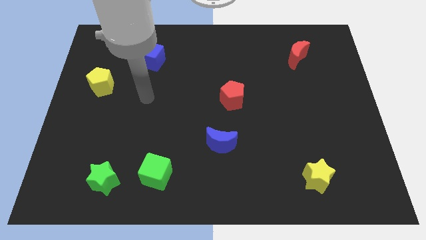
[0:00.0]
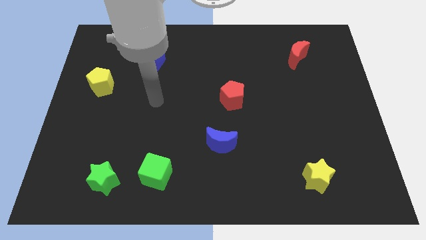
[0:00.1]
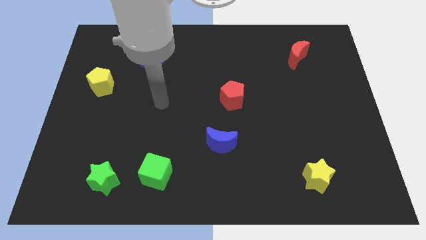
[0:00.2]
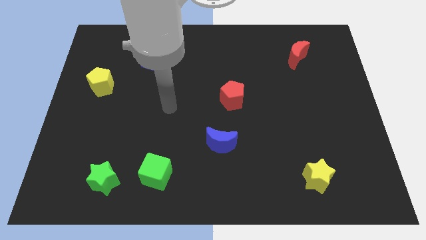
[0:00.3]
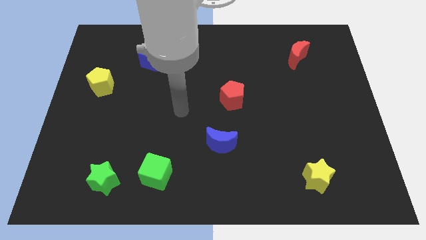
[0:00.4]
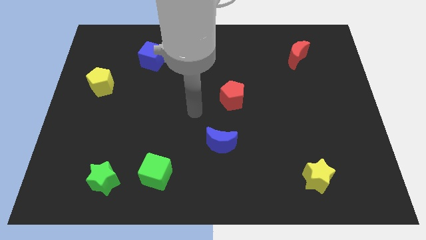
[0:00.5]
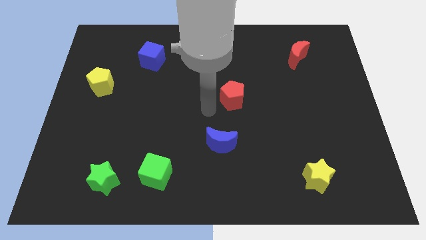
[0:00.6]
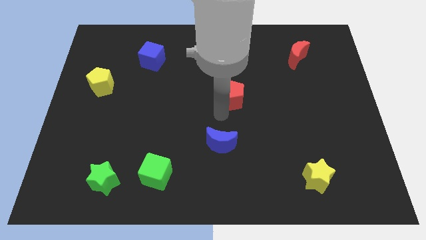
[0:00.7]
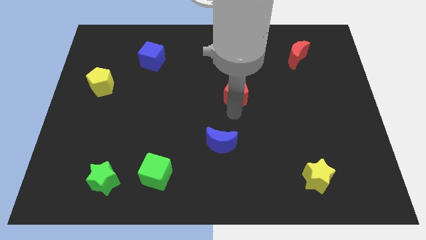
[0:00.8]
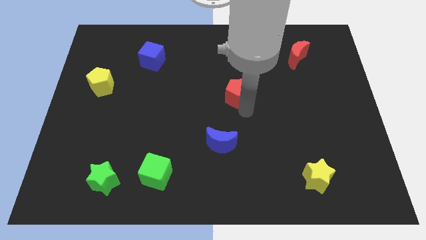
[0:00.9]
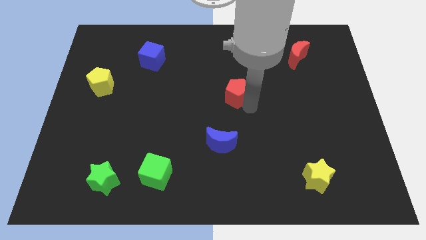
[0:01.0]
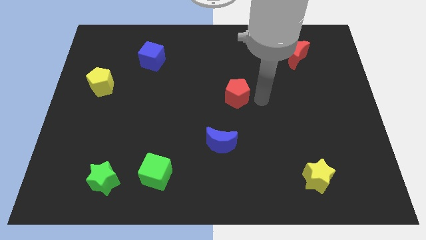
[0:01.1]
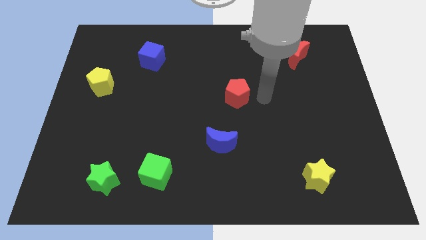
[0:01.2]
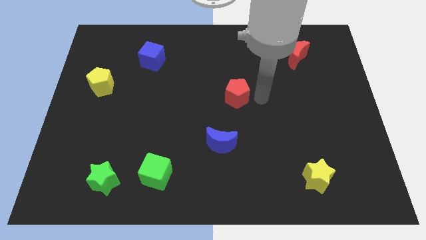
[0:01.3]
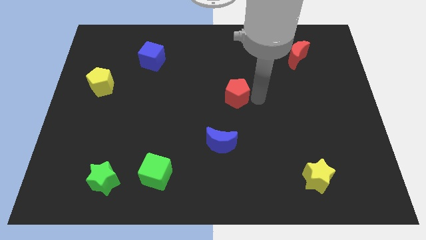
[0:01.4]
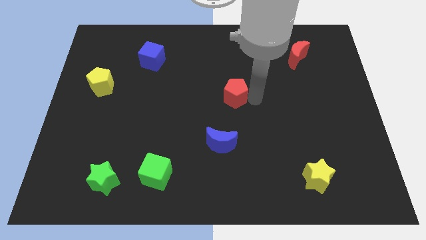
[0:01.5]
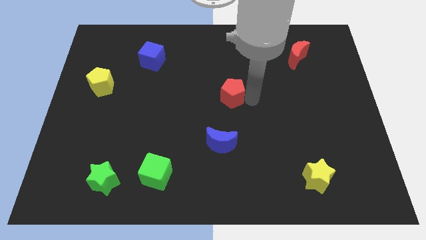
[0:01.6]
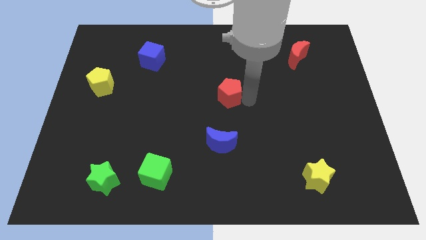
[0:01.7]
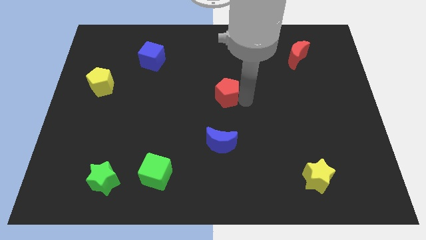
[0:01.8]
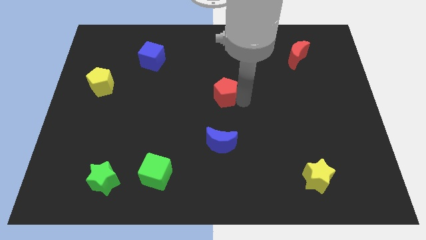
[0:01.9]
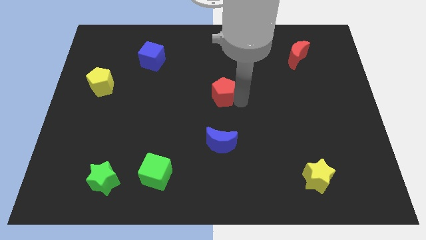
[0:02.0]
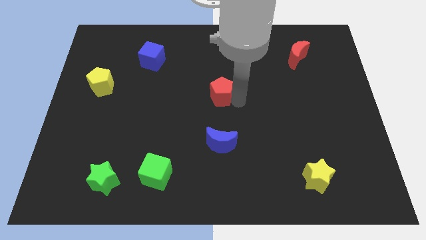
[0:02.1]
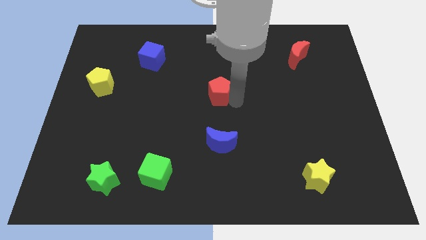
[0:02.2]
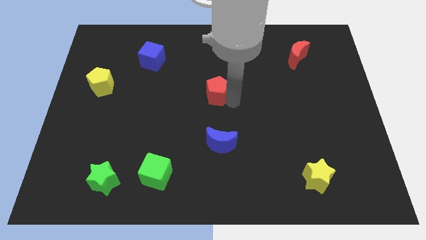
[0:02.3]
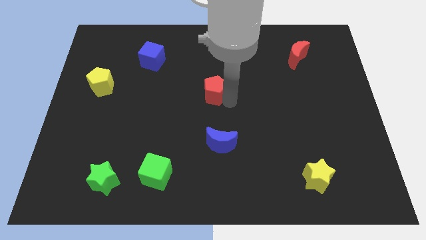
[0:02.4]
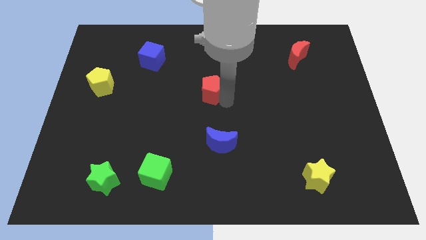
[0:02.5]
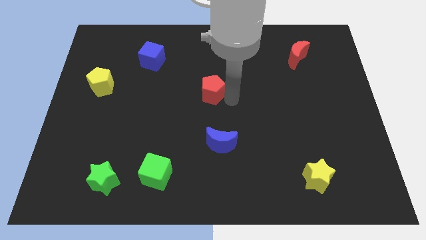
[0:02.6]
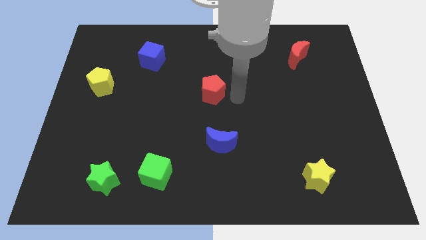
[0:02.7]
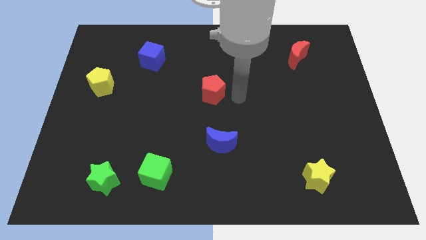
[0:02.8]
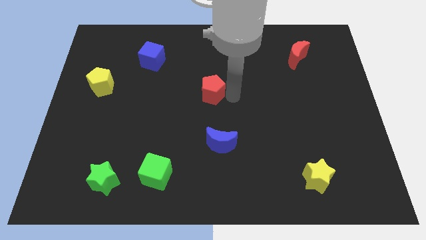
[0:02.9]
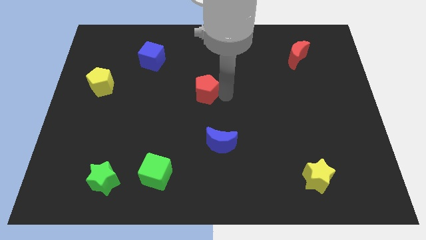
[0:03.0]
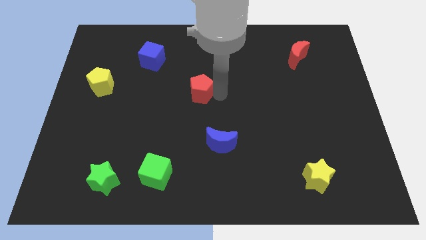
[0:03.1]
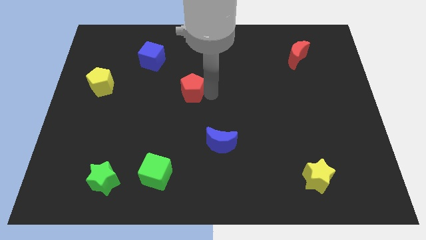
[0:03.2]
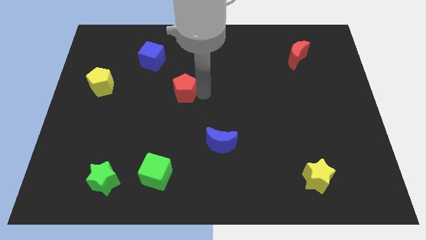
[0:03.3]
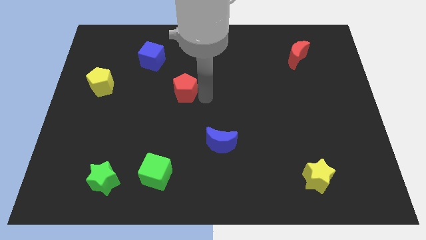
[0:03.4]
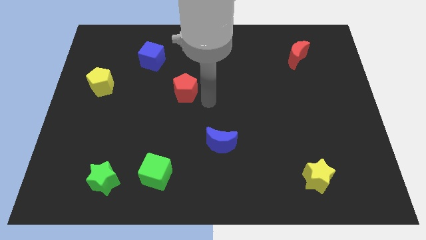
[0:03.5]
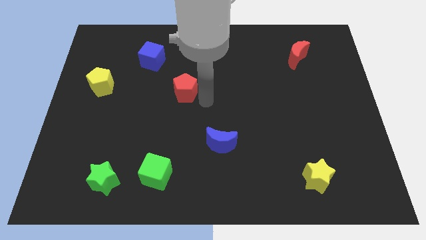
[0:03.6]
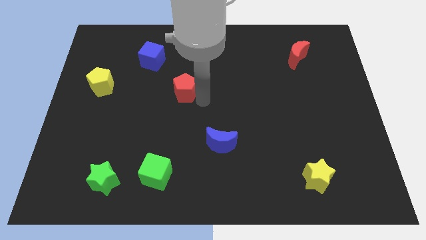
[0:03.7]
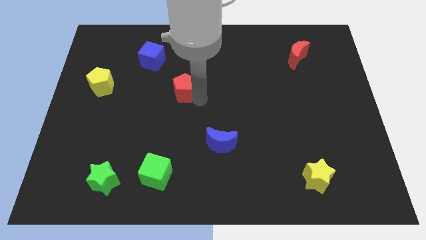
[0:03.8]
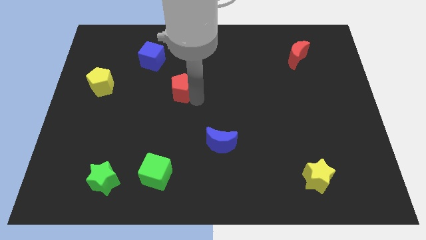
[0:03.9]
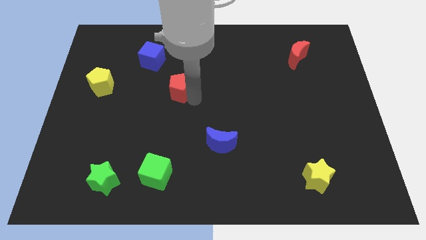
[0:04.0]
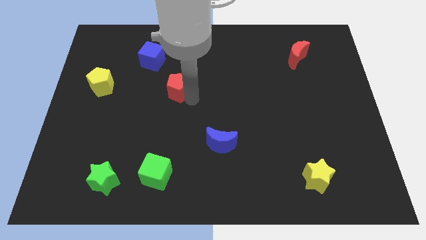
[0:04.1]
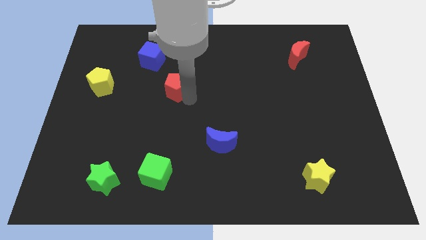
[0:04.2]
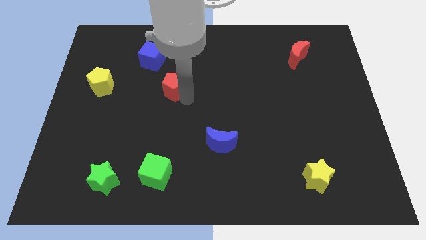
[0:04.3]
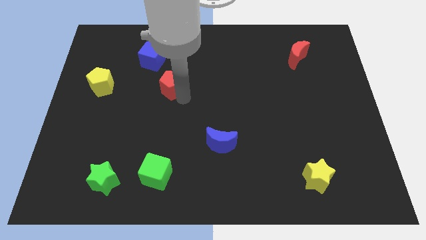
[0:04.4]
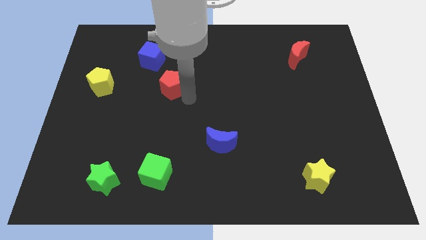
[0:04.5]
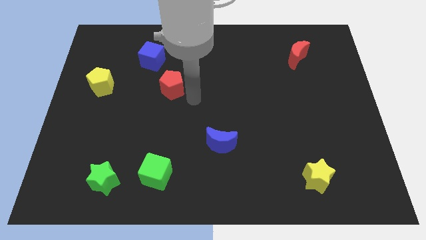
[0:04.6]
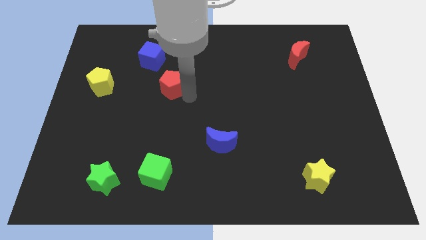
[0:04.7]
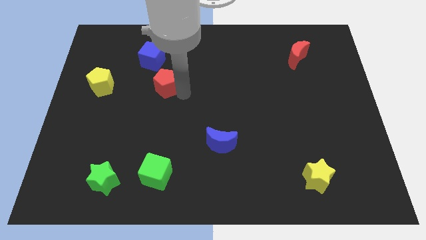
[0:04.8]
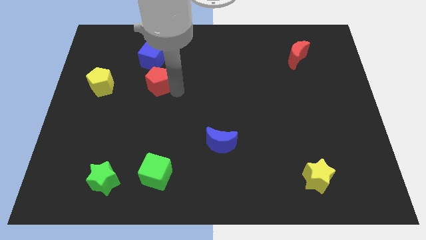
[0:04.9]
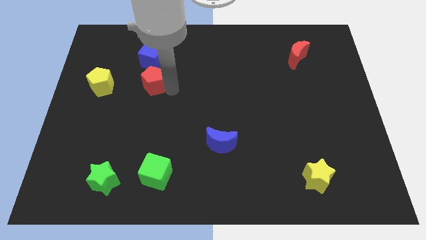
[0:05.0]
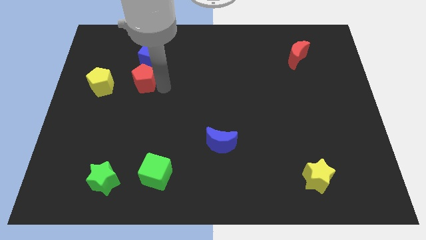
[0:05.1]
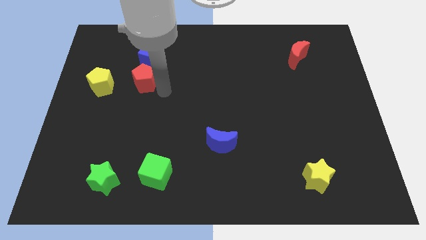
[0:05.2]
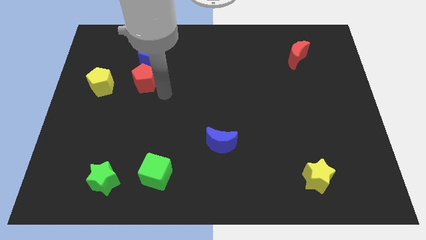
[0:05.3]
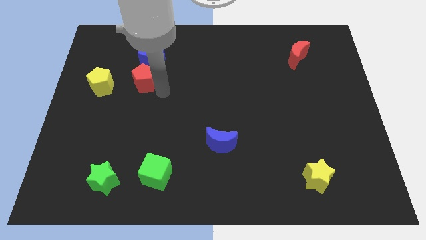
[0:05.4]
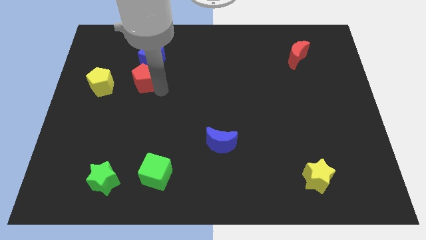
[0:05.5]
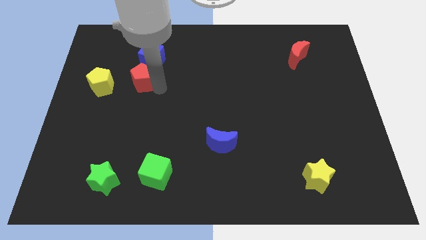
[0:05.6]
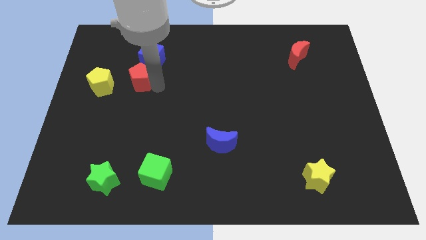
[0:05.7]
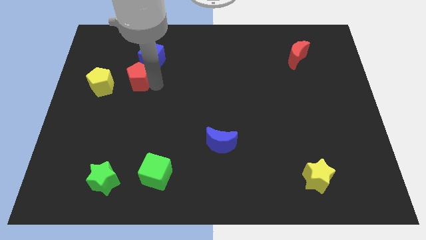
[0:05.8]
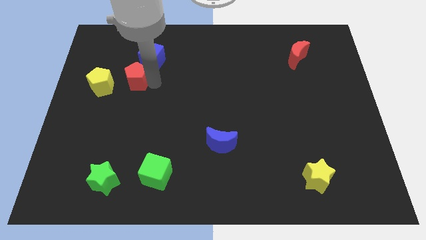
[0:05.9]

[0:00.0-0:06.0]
push the red pentagon diagonally up and to the right of the yellow pentagon
